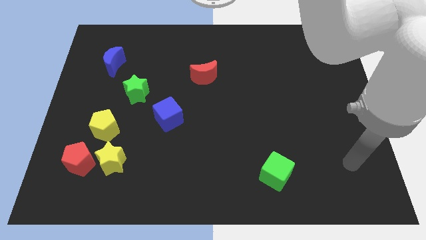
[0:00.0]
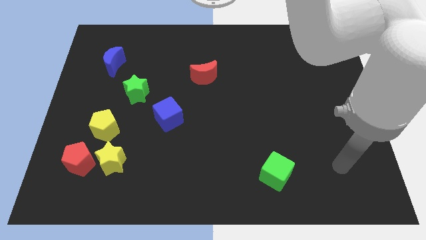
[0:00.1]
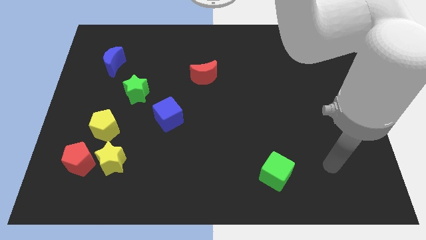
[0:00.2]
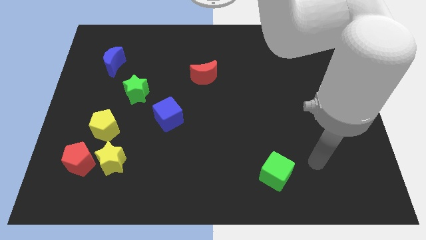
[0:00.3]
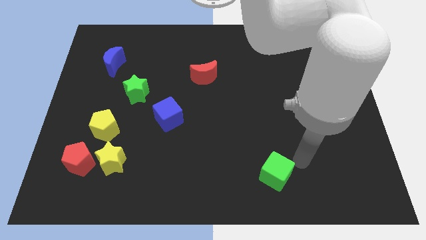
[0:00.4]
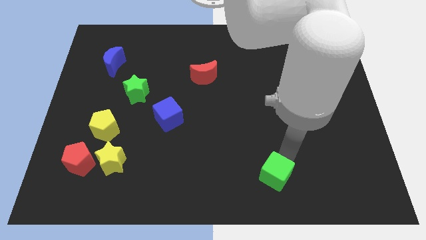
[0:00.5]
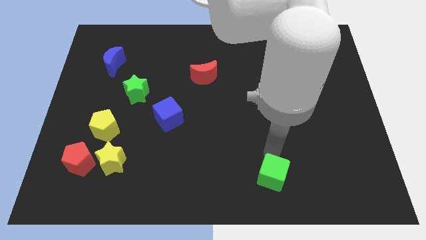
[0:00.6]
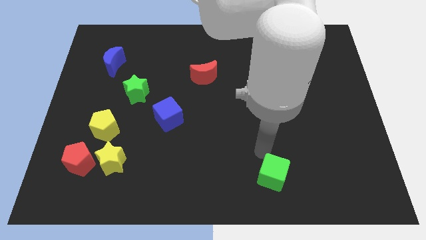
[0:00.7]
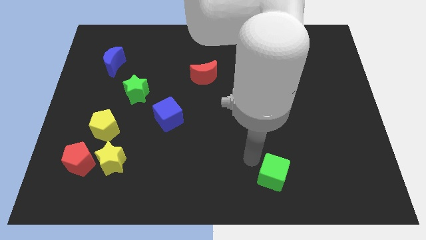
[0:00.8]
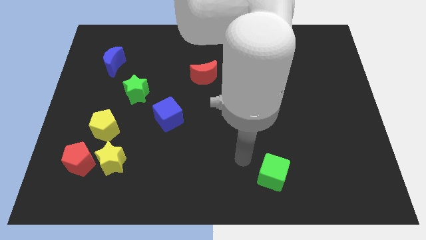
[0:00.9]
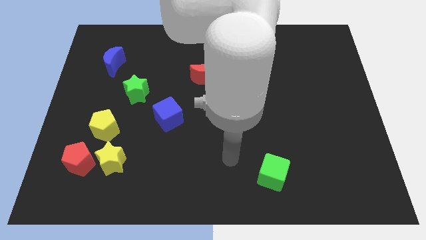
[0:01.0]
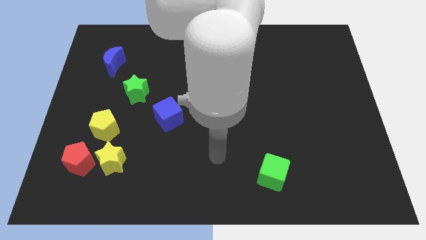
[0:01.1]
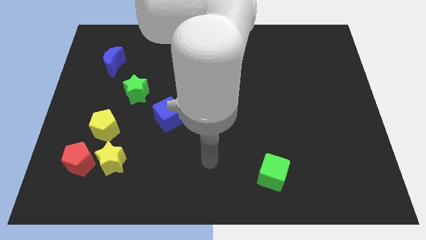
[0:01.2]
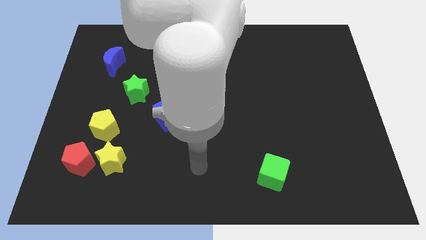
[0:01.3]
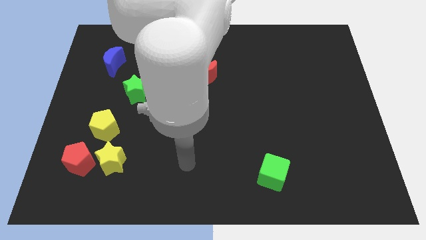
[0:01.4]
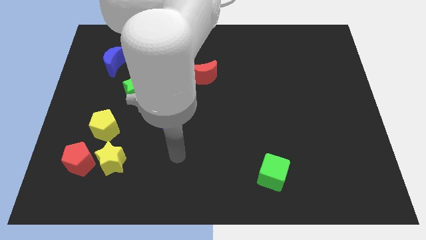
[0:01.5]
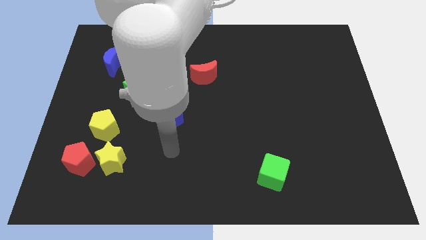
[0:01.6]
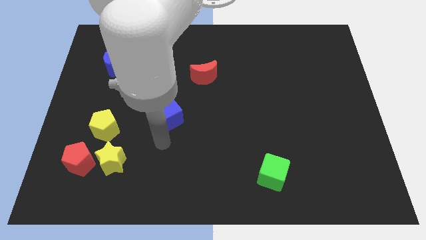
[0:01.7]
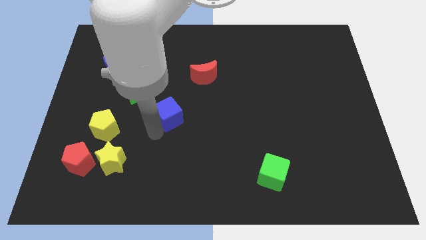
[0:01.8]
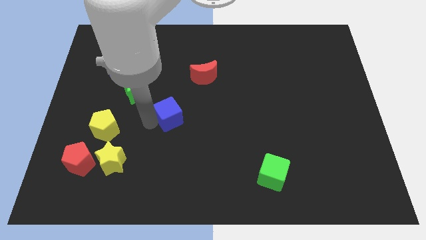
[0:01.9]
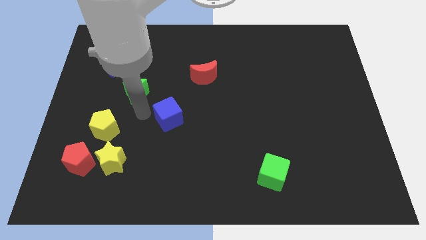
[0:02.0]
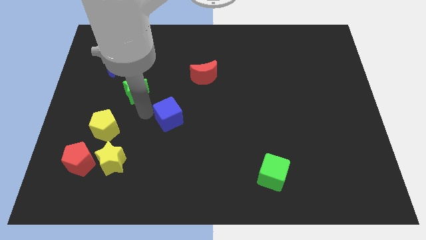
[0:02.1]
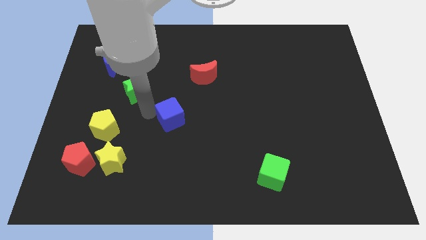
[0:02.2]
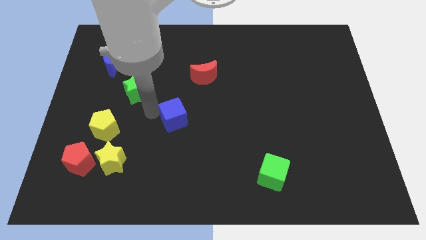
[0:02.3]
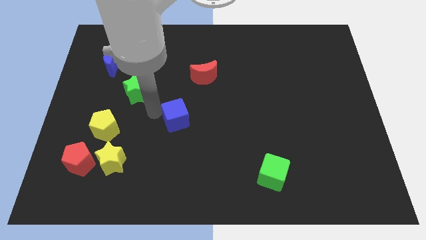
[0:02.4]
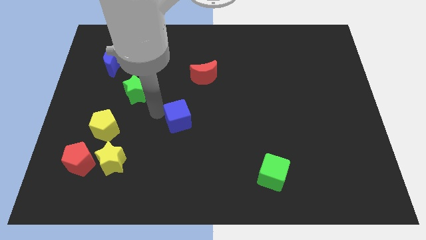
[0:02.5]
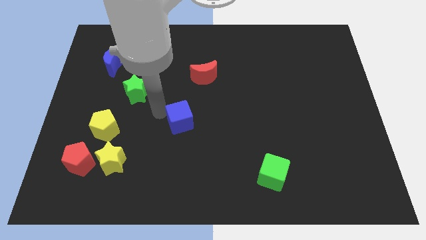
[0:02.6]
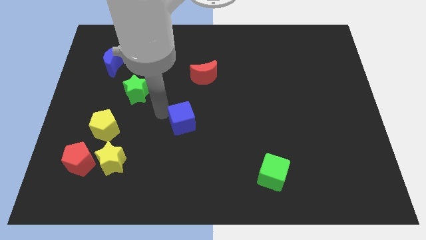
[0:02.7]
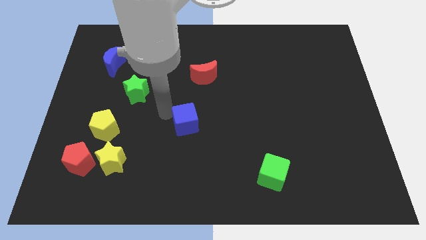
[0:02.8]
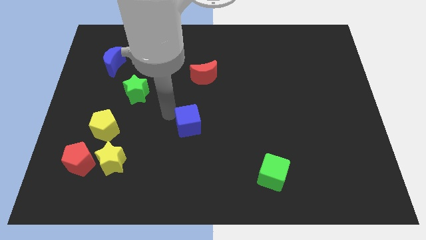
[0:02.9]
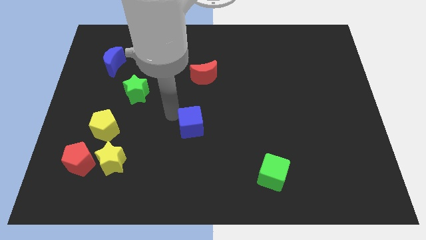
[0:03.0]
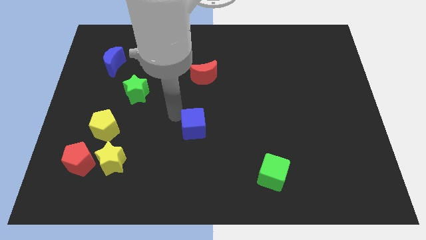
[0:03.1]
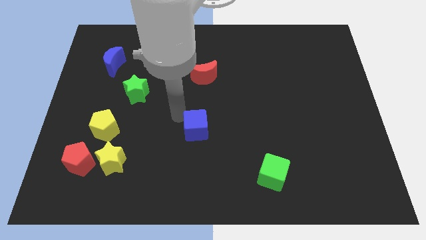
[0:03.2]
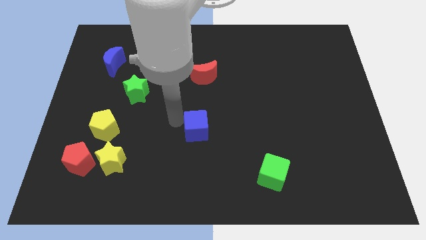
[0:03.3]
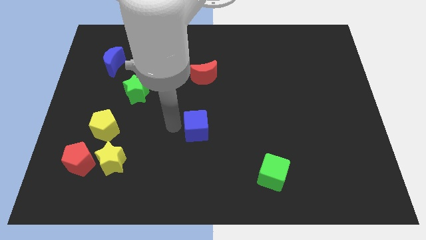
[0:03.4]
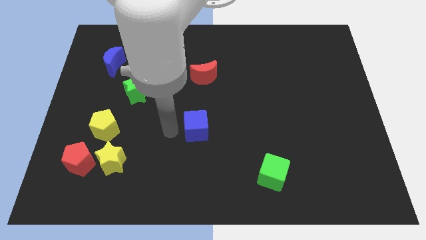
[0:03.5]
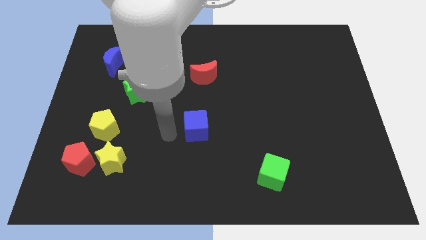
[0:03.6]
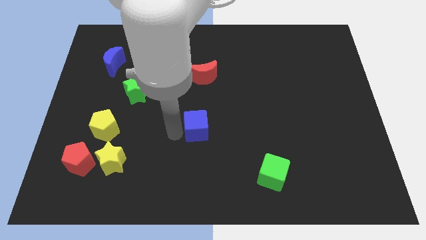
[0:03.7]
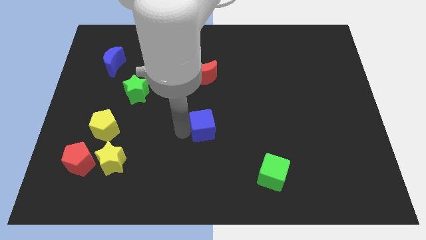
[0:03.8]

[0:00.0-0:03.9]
slide the blue cube to the right a little bit

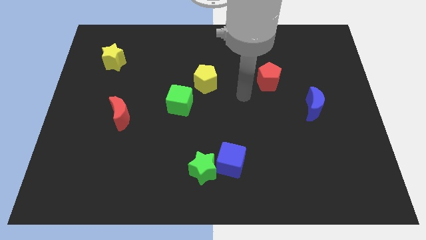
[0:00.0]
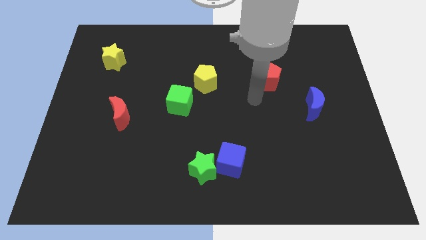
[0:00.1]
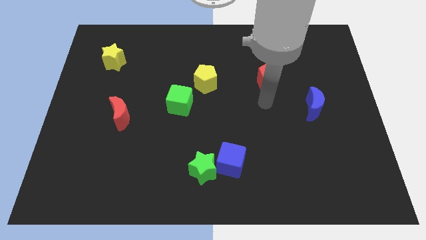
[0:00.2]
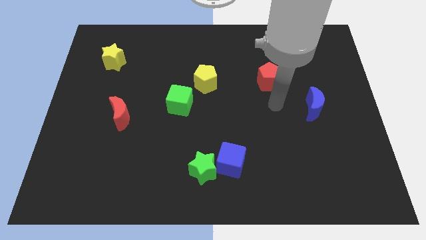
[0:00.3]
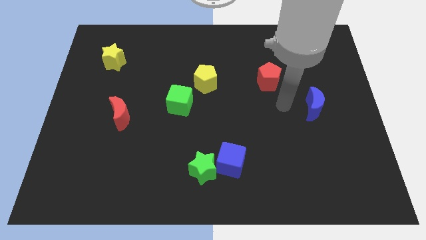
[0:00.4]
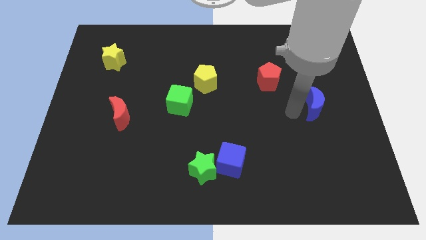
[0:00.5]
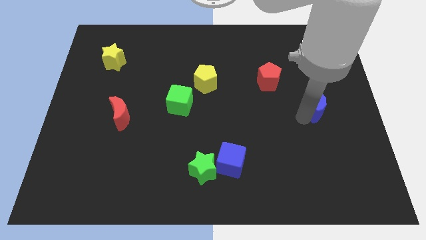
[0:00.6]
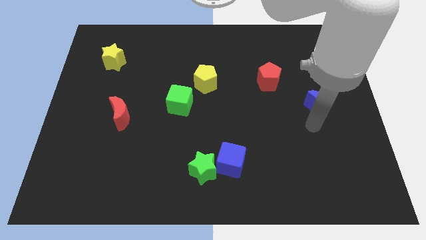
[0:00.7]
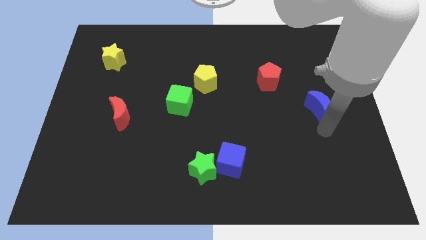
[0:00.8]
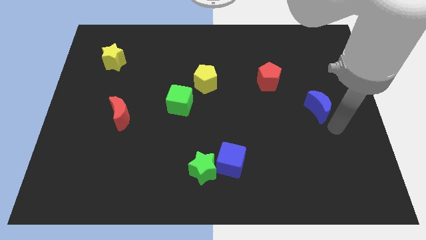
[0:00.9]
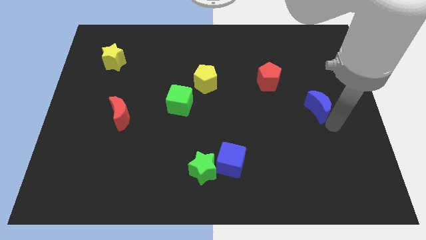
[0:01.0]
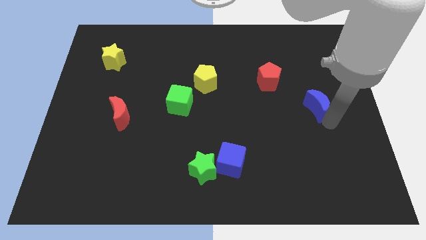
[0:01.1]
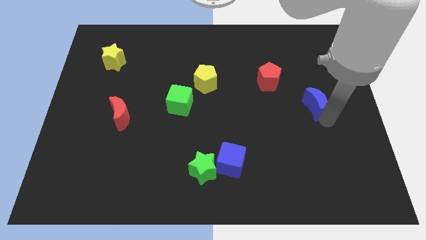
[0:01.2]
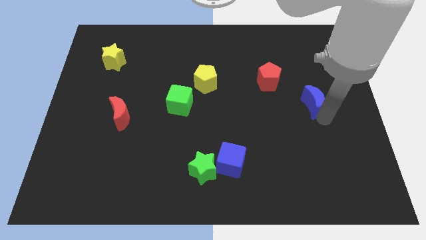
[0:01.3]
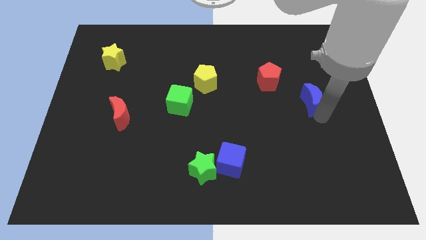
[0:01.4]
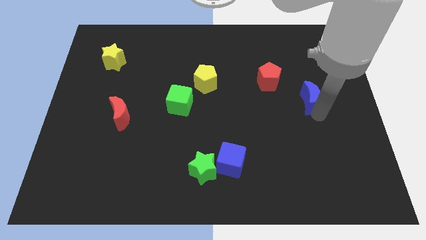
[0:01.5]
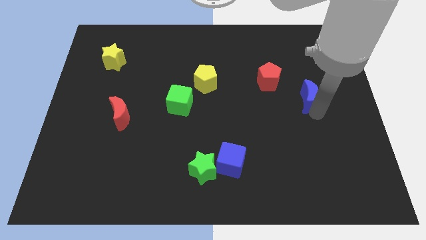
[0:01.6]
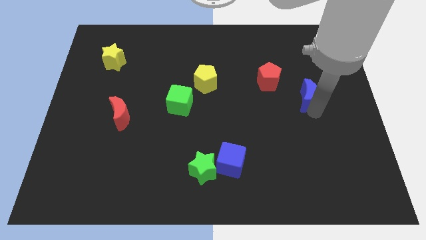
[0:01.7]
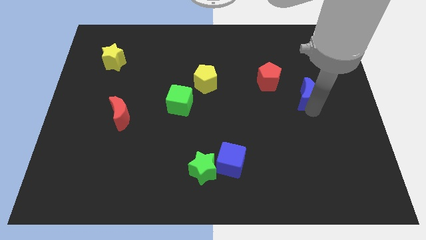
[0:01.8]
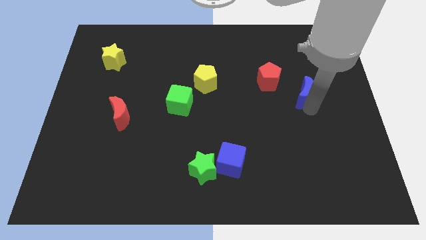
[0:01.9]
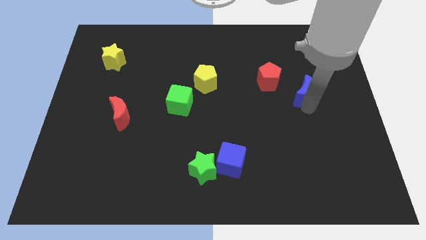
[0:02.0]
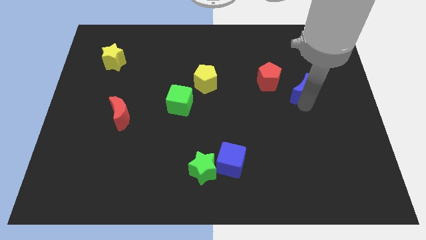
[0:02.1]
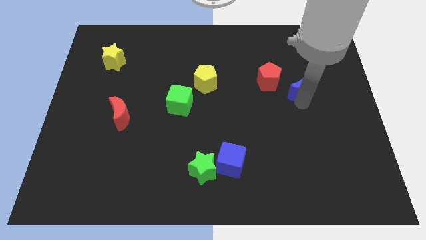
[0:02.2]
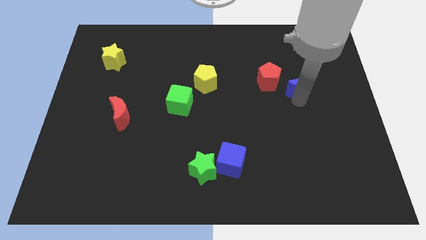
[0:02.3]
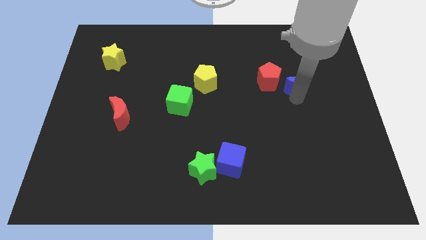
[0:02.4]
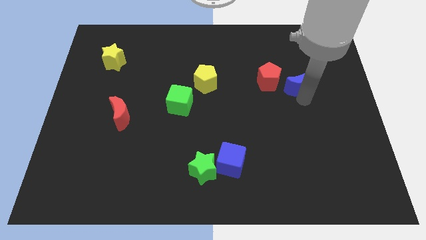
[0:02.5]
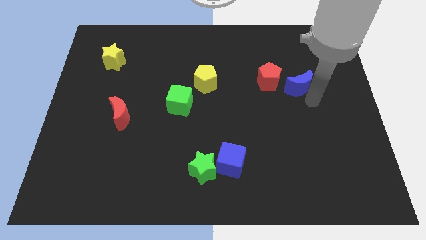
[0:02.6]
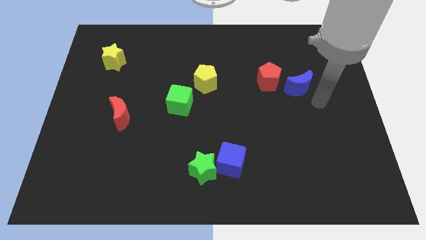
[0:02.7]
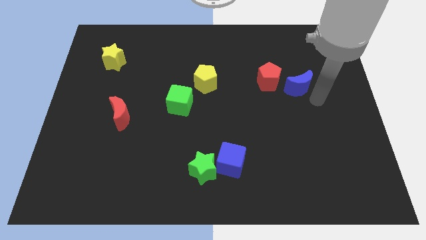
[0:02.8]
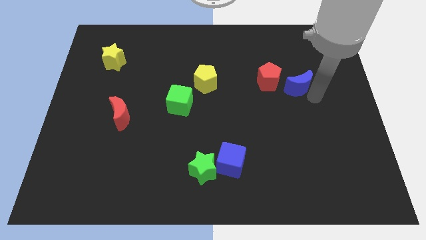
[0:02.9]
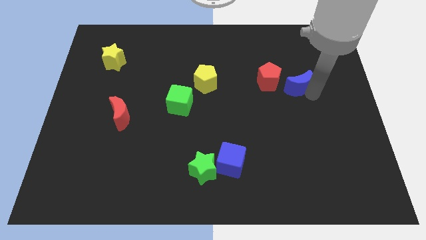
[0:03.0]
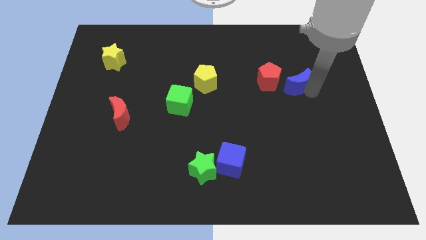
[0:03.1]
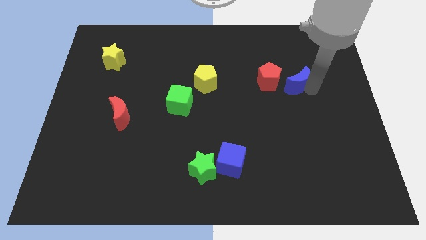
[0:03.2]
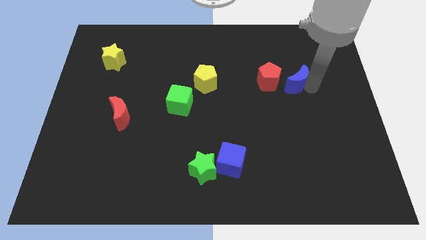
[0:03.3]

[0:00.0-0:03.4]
push the blue moon a little bit up and then to the left

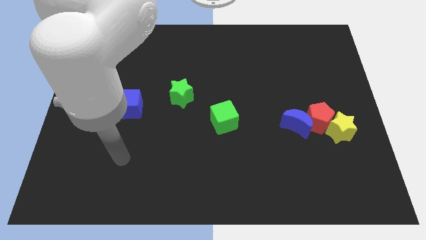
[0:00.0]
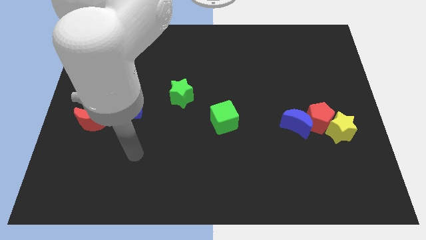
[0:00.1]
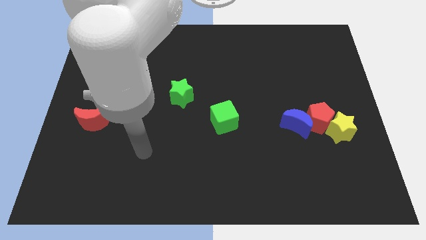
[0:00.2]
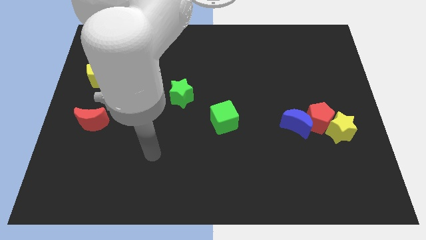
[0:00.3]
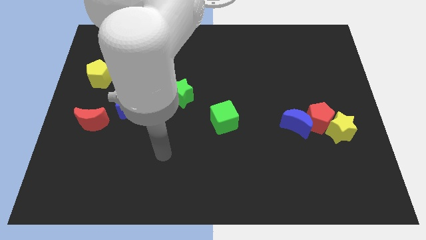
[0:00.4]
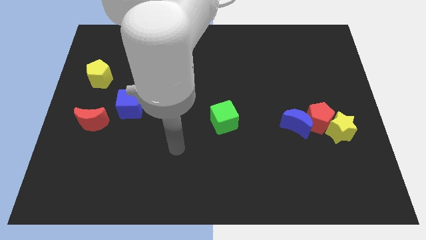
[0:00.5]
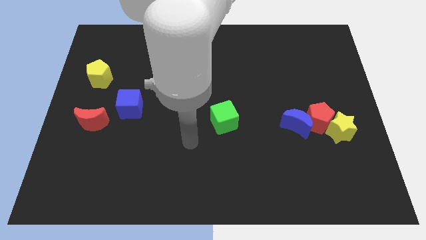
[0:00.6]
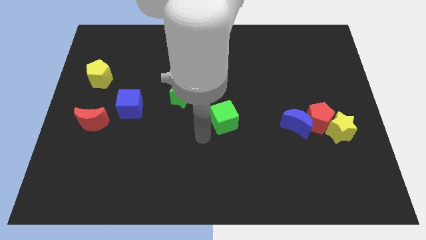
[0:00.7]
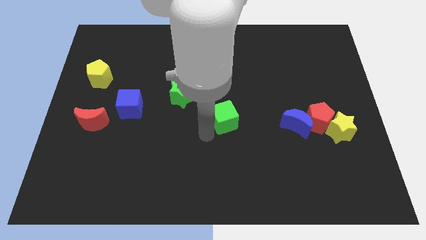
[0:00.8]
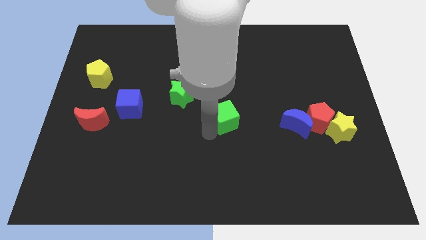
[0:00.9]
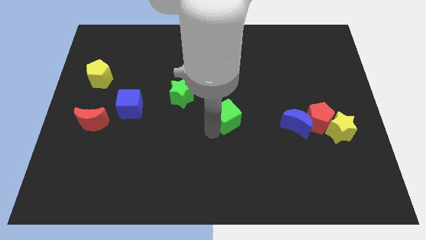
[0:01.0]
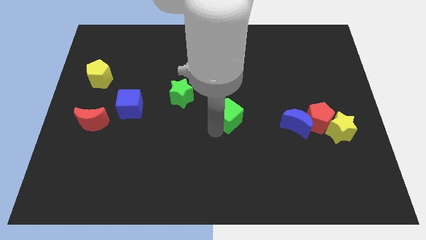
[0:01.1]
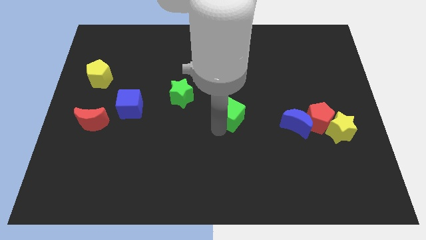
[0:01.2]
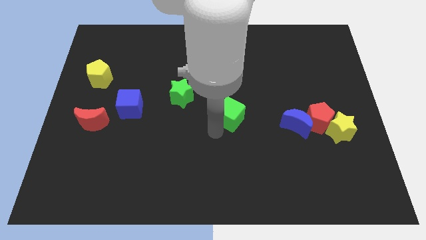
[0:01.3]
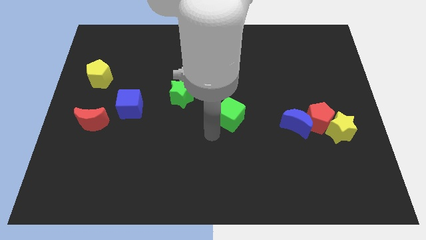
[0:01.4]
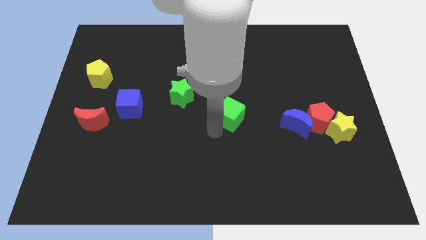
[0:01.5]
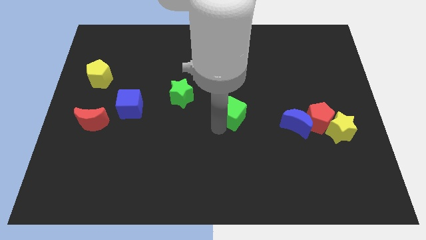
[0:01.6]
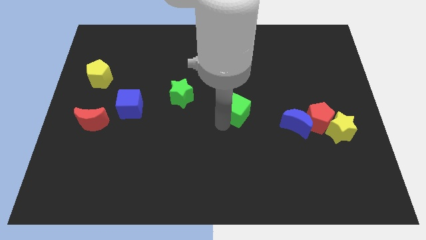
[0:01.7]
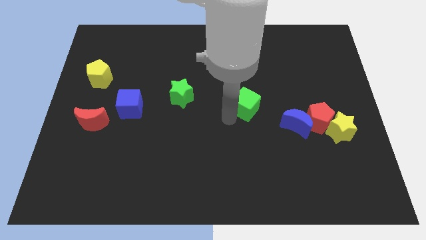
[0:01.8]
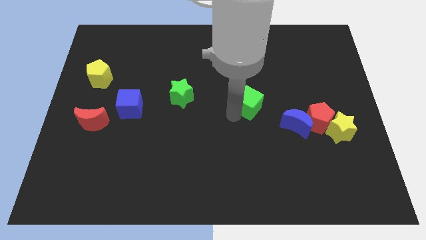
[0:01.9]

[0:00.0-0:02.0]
slide the green cube up and then to the right a little bit
